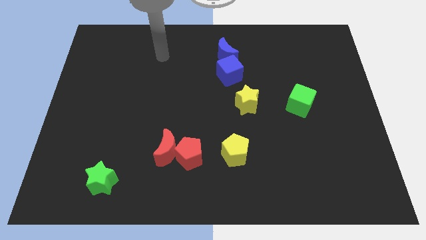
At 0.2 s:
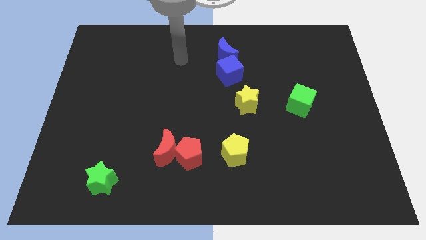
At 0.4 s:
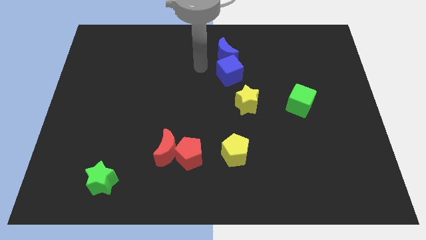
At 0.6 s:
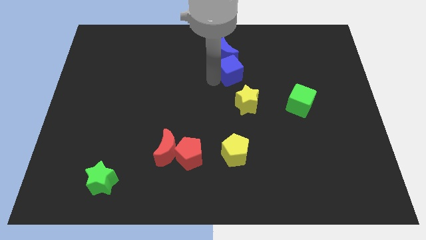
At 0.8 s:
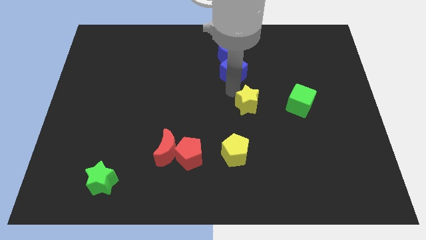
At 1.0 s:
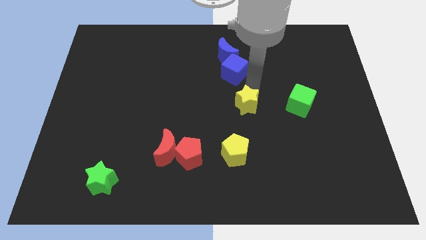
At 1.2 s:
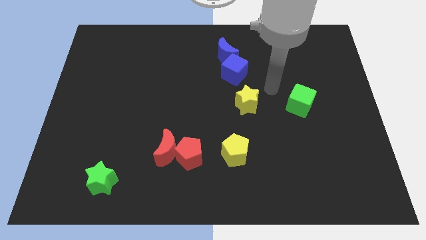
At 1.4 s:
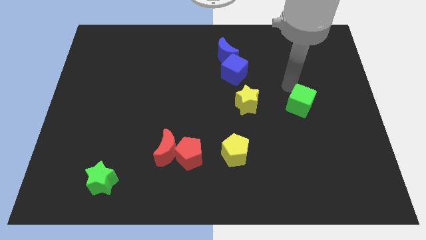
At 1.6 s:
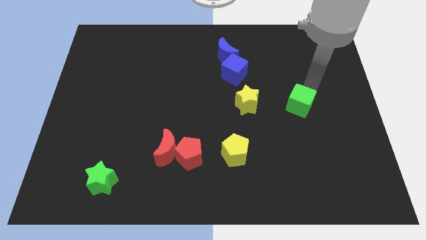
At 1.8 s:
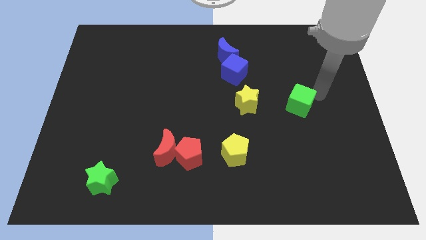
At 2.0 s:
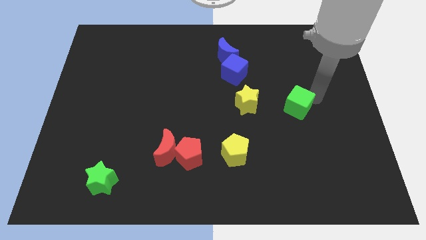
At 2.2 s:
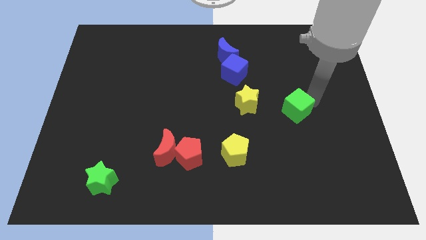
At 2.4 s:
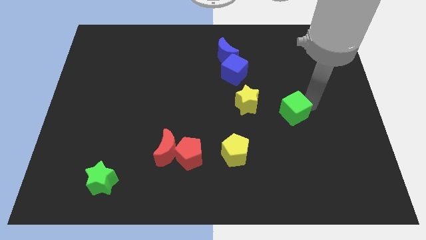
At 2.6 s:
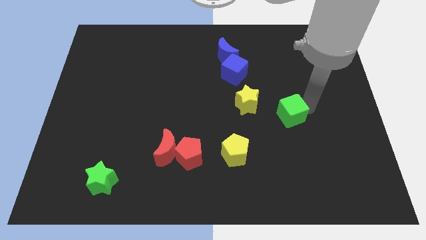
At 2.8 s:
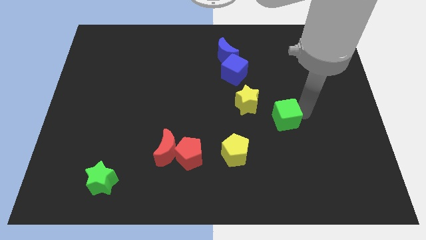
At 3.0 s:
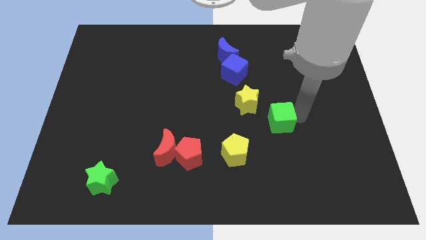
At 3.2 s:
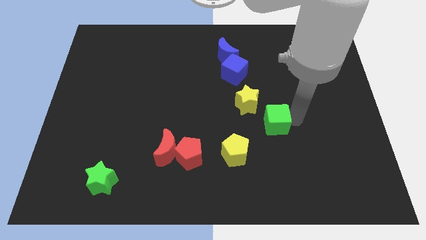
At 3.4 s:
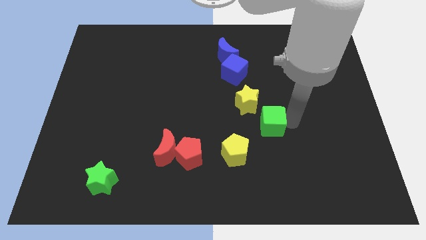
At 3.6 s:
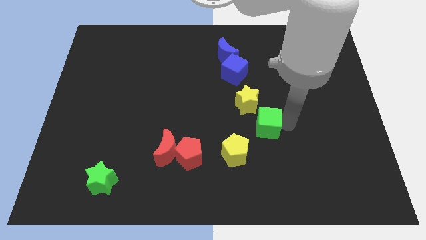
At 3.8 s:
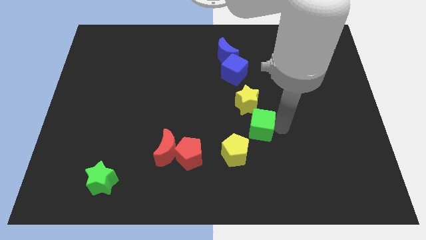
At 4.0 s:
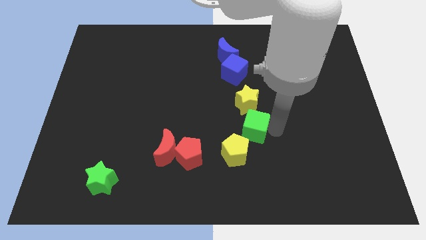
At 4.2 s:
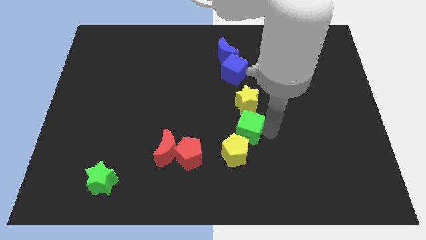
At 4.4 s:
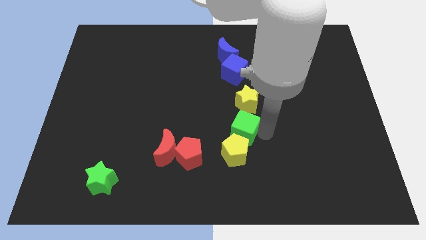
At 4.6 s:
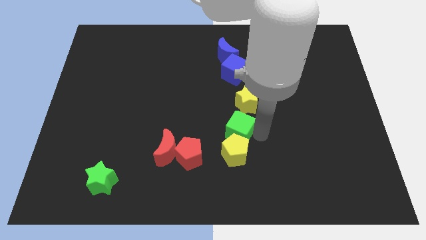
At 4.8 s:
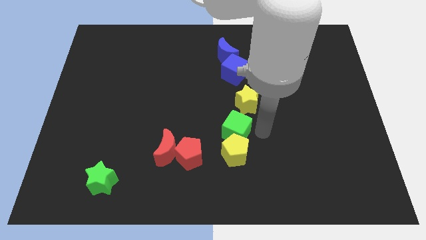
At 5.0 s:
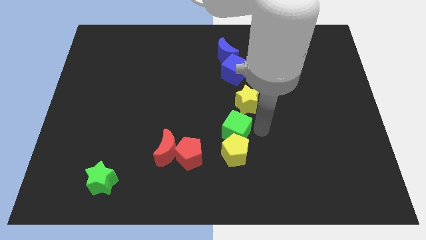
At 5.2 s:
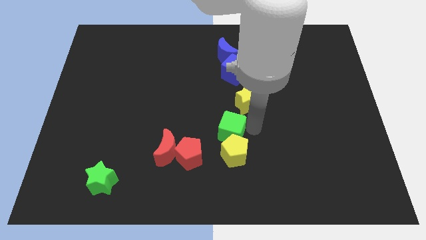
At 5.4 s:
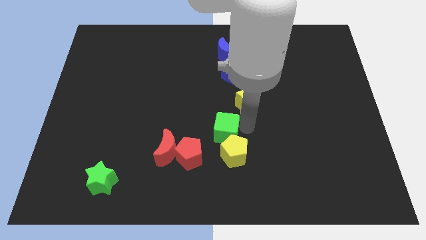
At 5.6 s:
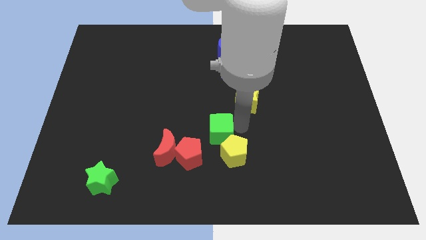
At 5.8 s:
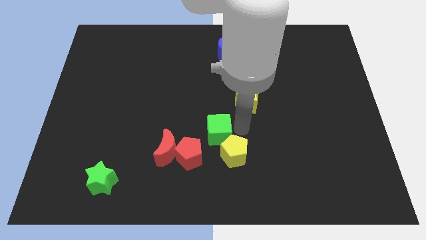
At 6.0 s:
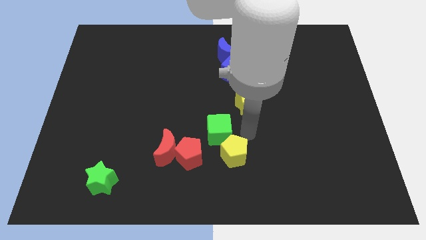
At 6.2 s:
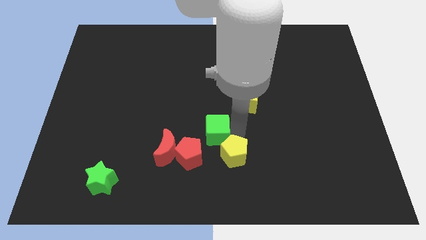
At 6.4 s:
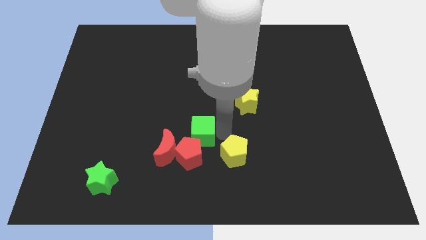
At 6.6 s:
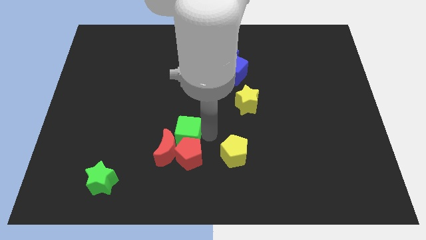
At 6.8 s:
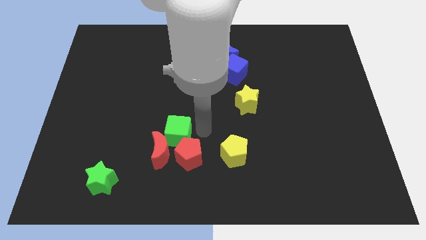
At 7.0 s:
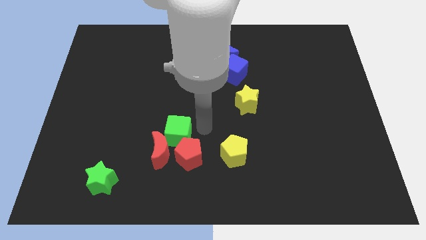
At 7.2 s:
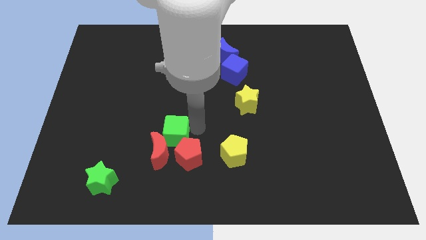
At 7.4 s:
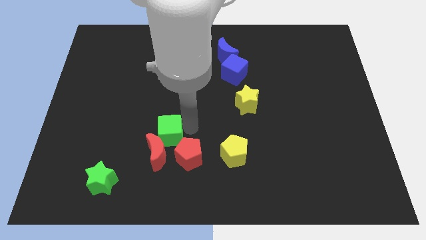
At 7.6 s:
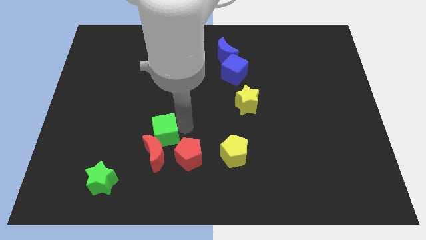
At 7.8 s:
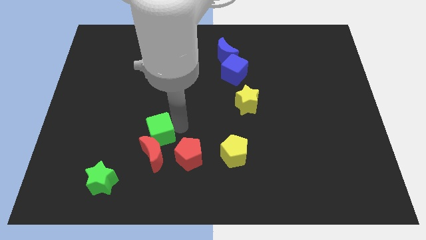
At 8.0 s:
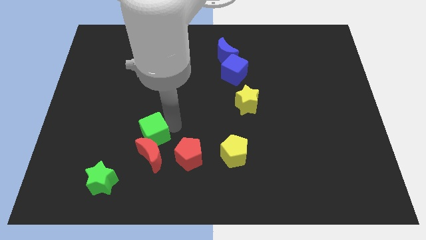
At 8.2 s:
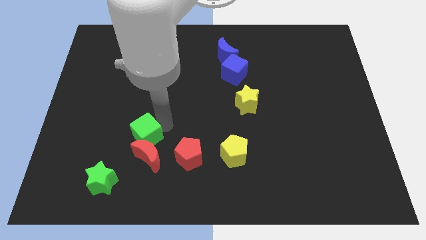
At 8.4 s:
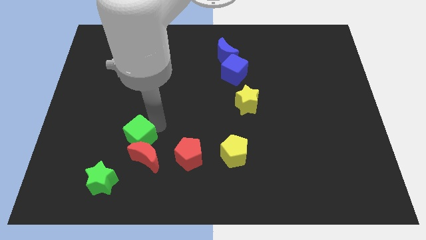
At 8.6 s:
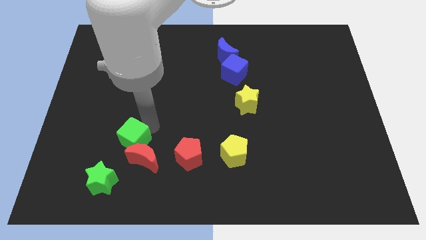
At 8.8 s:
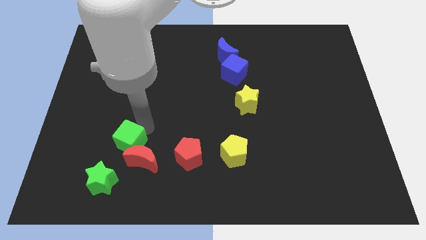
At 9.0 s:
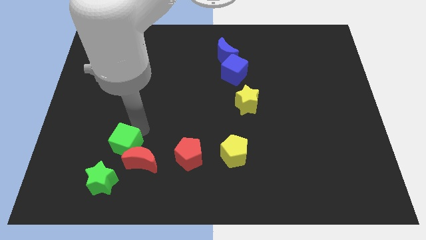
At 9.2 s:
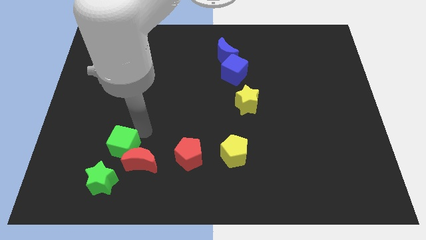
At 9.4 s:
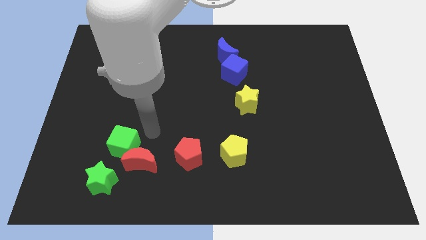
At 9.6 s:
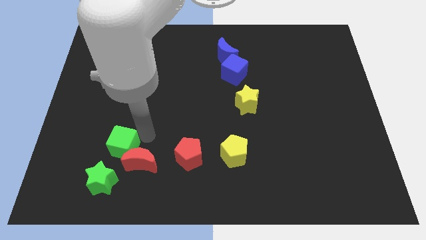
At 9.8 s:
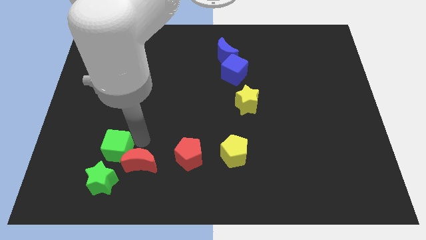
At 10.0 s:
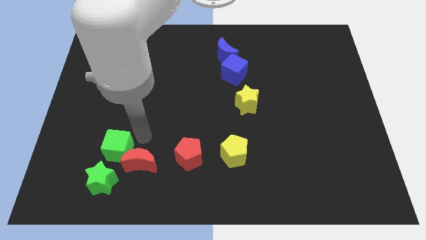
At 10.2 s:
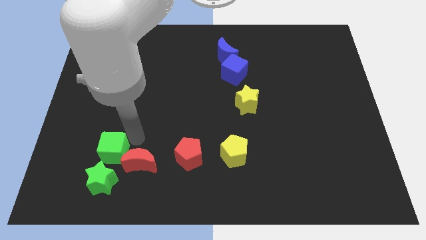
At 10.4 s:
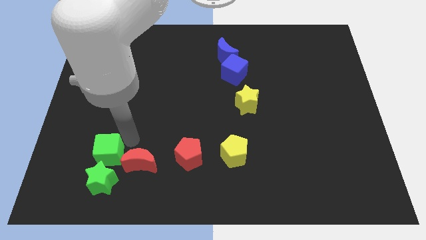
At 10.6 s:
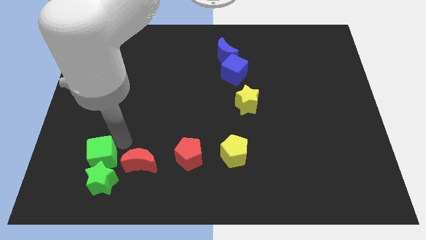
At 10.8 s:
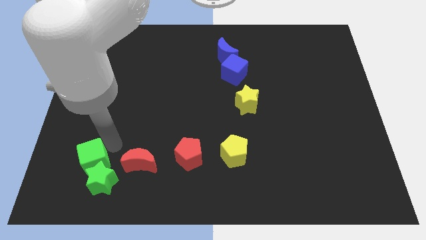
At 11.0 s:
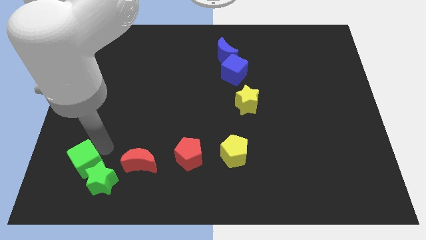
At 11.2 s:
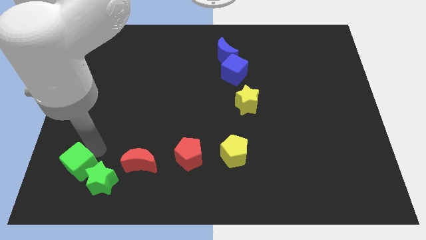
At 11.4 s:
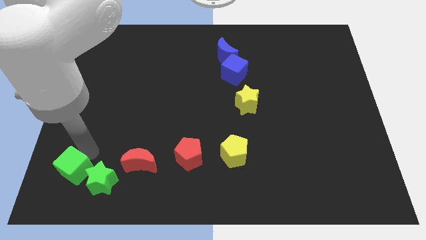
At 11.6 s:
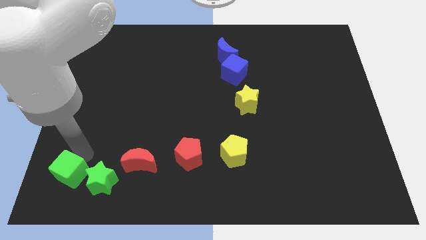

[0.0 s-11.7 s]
slide the green cube to the lower left corner
